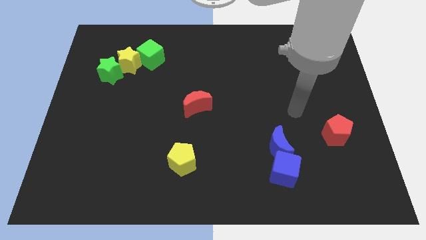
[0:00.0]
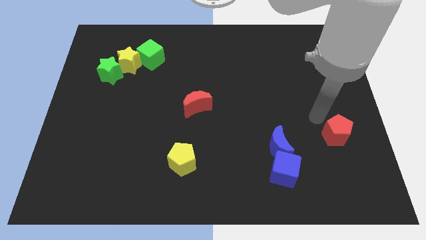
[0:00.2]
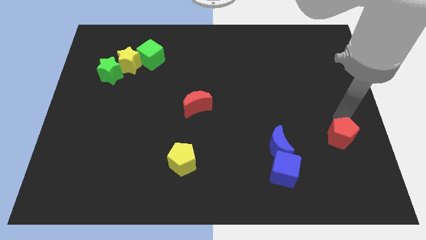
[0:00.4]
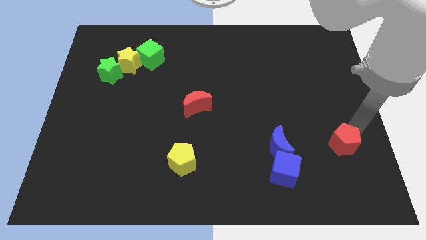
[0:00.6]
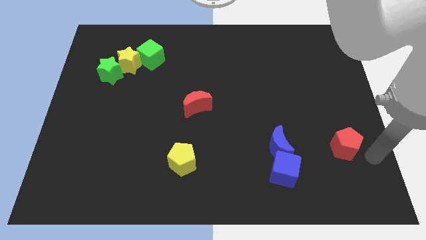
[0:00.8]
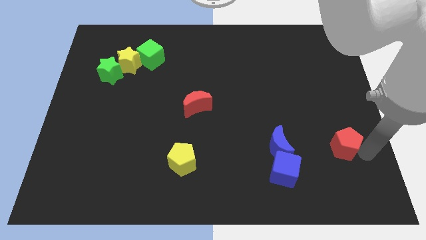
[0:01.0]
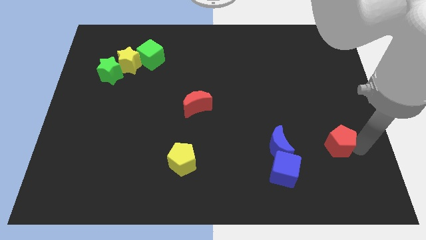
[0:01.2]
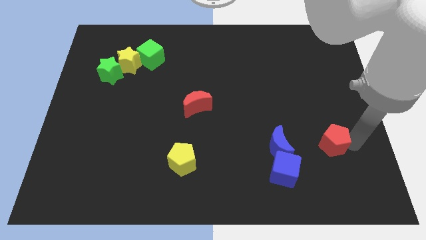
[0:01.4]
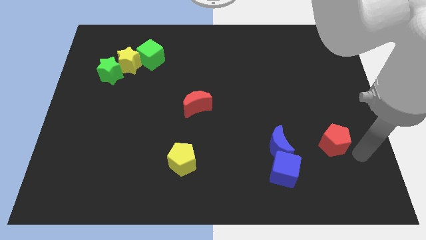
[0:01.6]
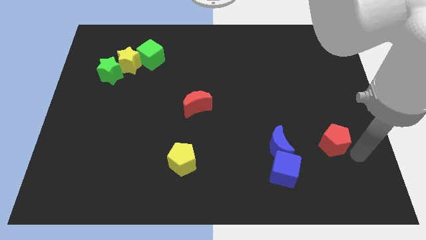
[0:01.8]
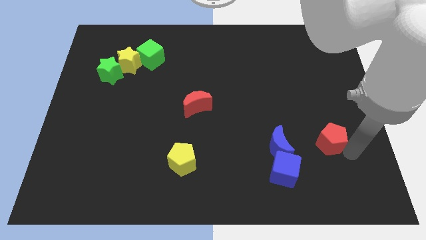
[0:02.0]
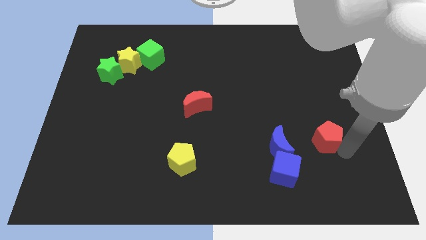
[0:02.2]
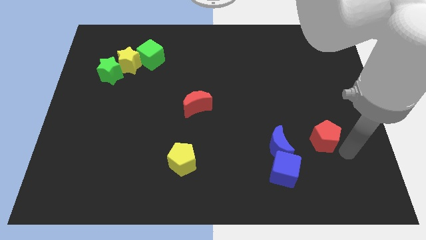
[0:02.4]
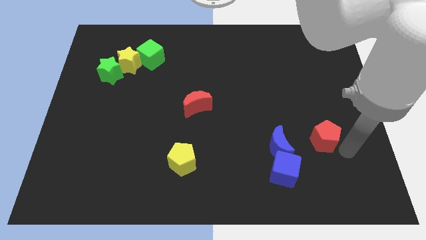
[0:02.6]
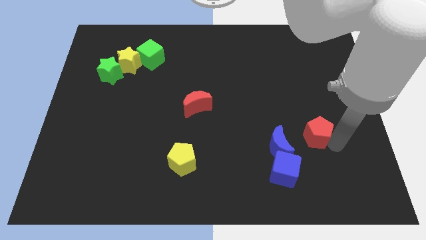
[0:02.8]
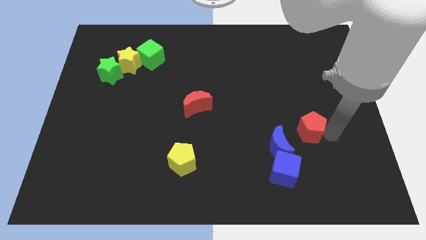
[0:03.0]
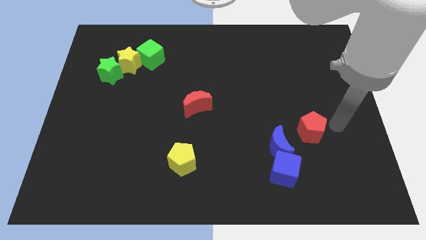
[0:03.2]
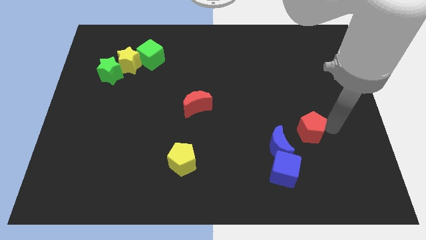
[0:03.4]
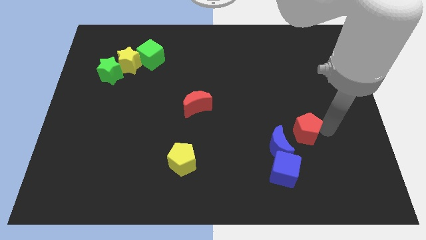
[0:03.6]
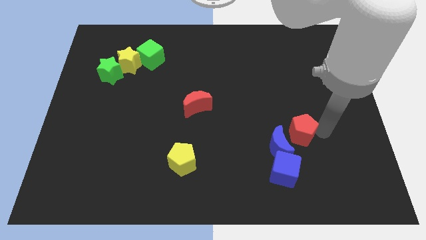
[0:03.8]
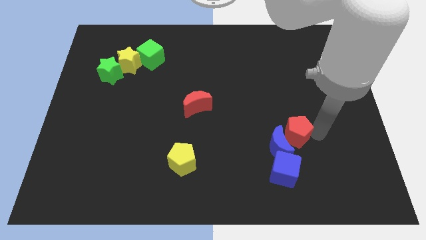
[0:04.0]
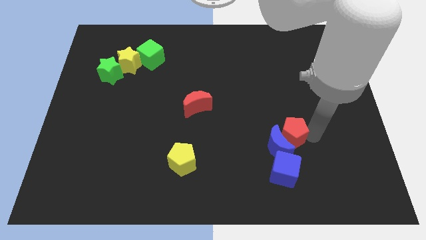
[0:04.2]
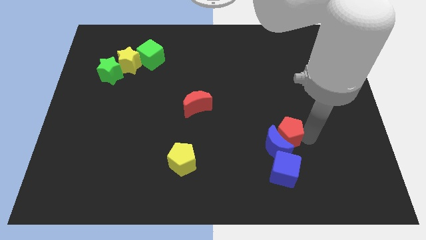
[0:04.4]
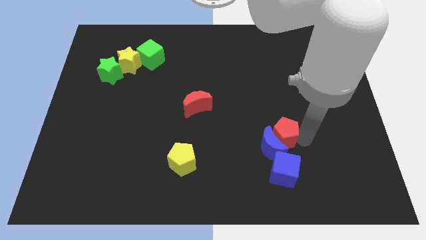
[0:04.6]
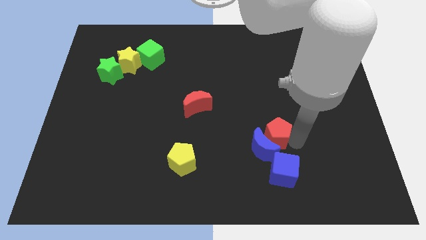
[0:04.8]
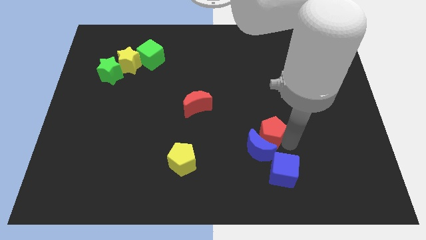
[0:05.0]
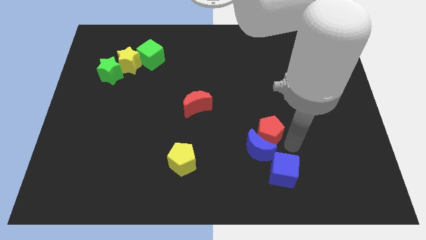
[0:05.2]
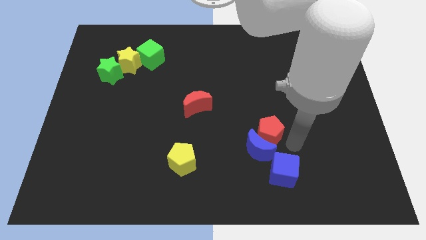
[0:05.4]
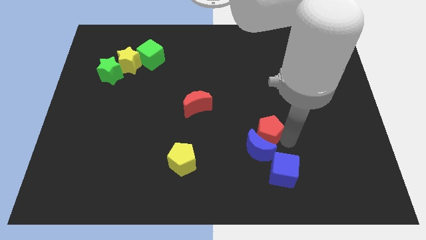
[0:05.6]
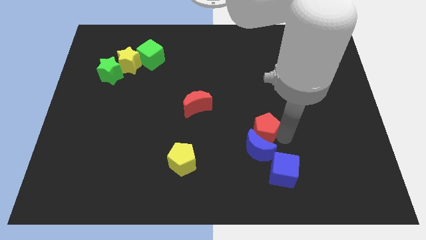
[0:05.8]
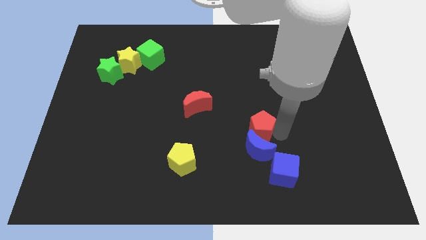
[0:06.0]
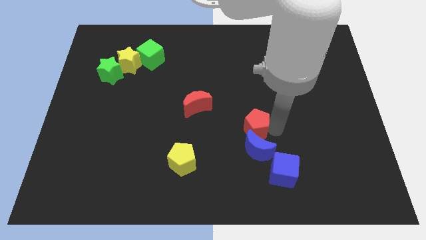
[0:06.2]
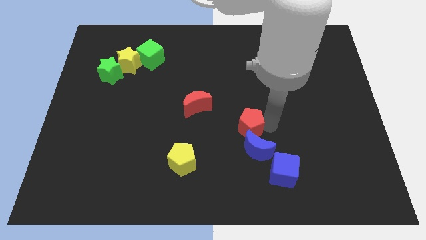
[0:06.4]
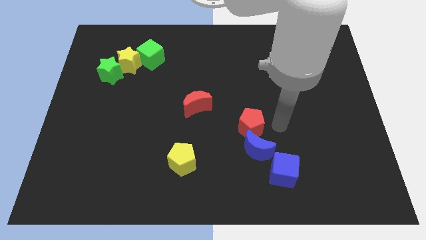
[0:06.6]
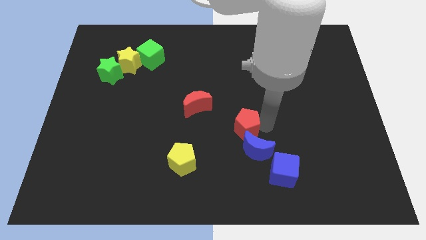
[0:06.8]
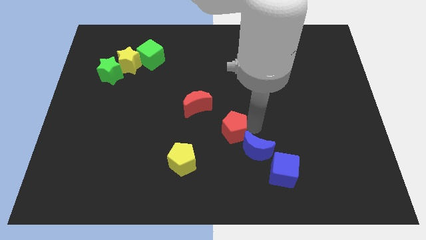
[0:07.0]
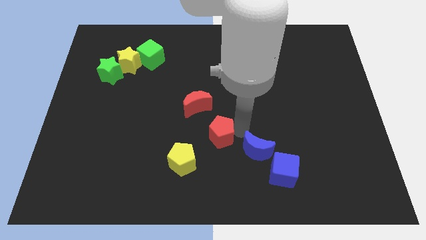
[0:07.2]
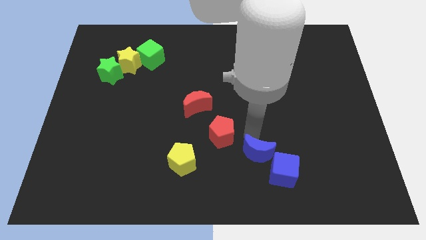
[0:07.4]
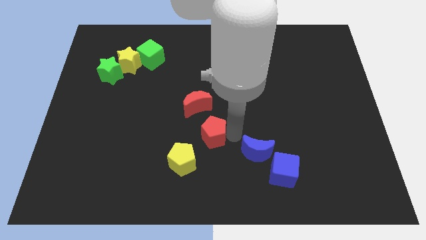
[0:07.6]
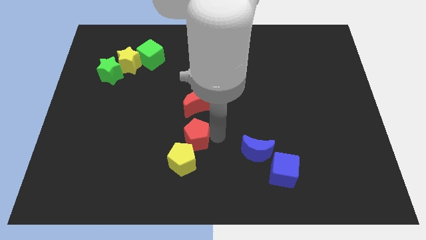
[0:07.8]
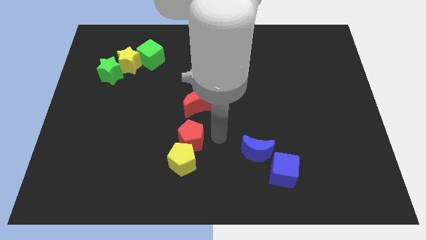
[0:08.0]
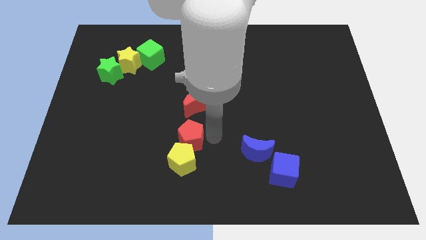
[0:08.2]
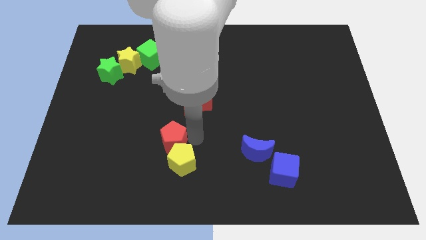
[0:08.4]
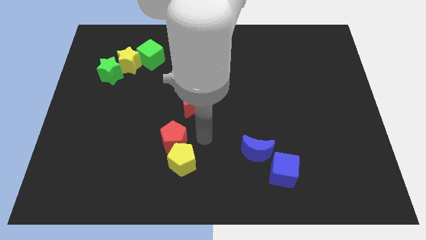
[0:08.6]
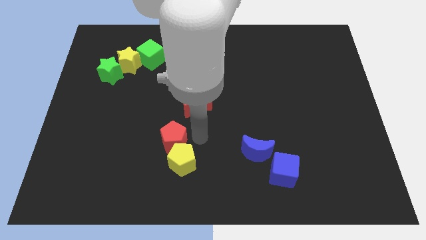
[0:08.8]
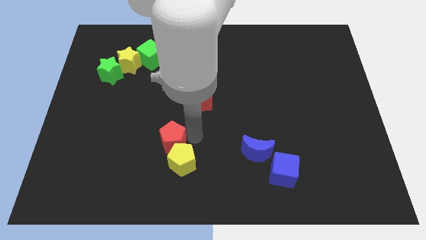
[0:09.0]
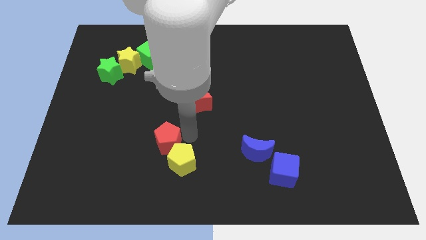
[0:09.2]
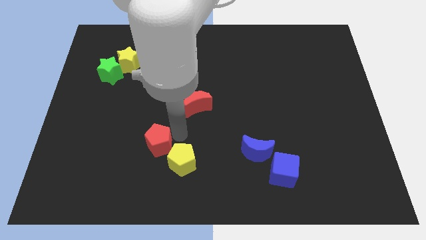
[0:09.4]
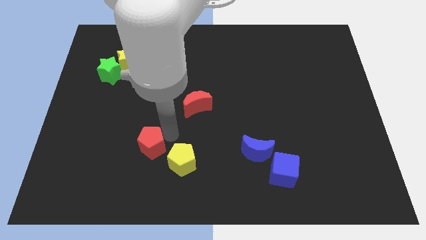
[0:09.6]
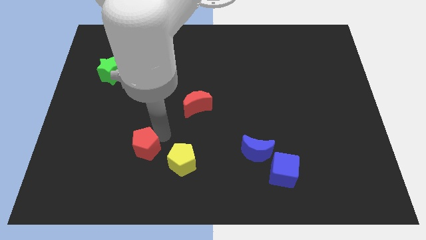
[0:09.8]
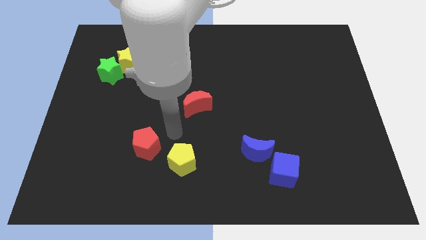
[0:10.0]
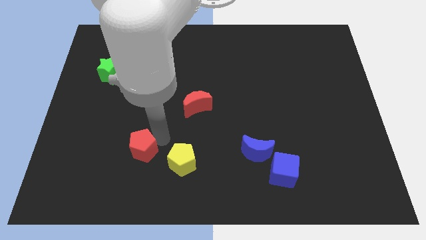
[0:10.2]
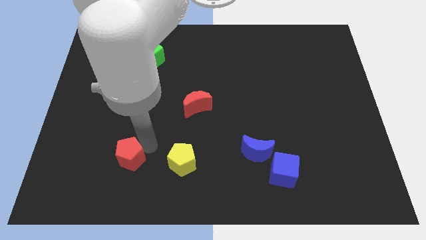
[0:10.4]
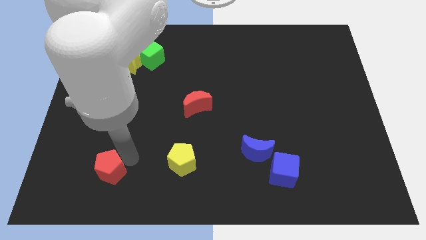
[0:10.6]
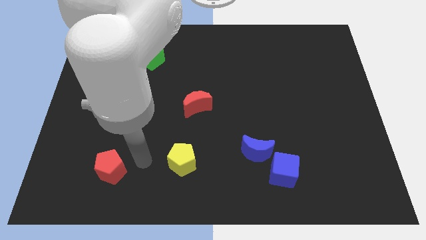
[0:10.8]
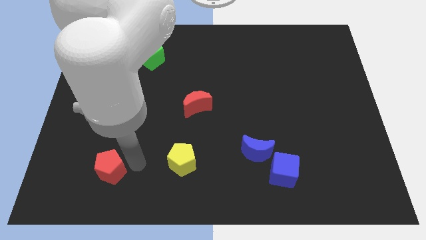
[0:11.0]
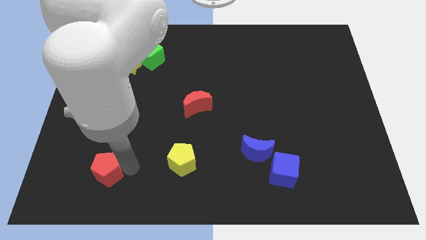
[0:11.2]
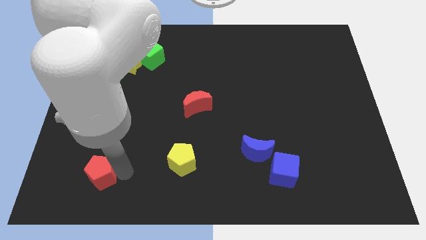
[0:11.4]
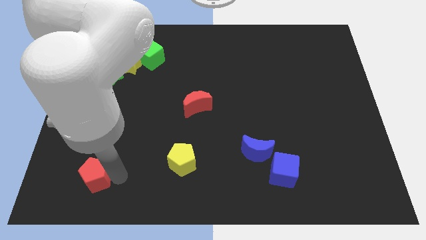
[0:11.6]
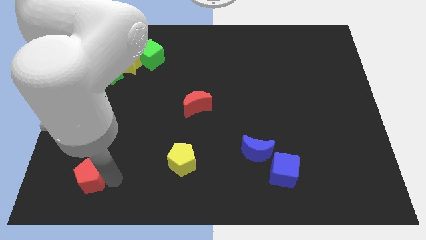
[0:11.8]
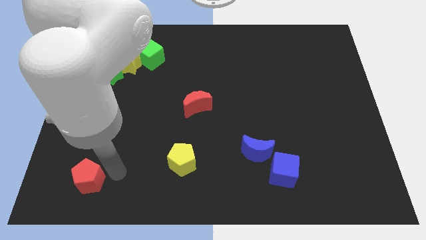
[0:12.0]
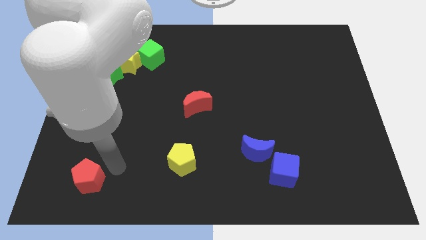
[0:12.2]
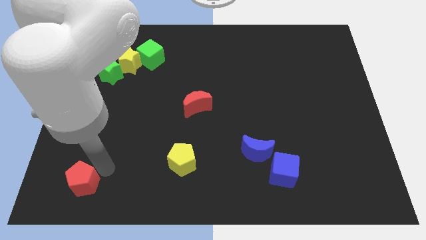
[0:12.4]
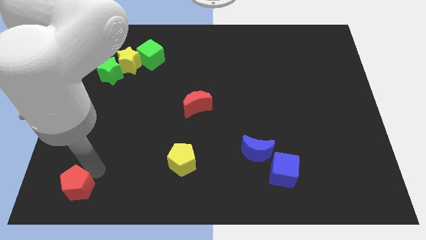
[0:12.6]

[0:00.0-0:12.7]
slide the red pentagon to the bottom left of the board

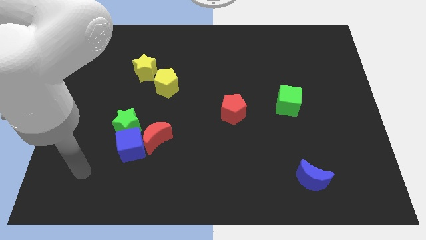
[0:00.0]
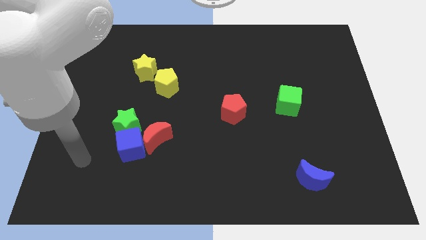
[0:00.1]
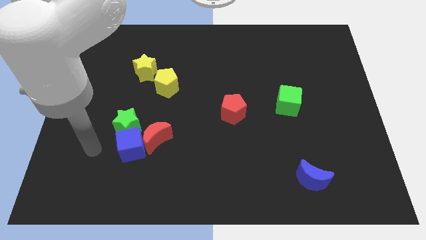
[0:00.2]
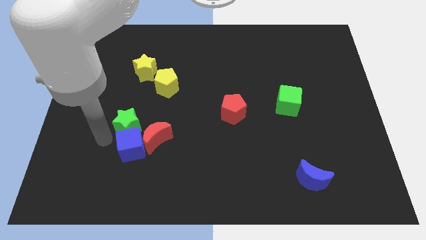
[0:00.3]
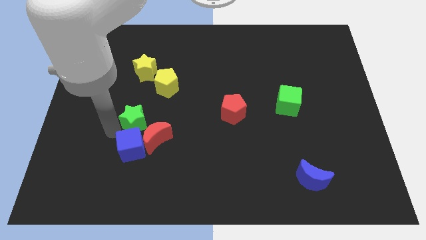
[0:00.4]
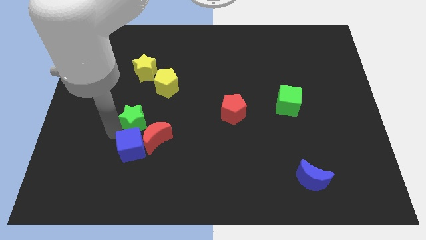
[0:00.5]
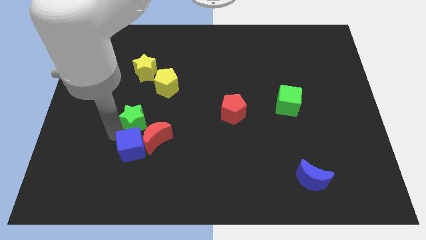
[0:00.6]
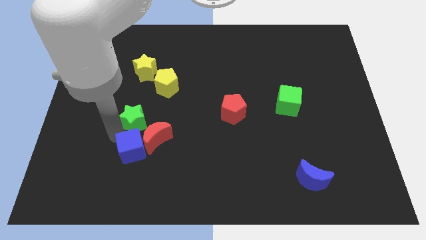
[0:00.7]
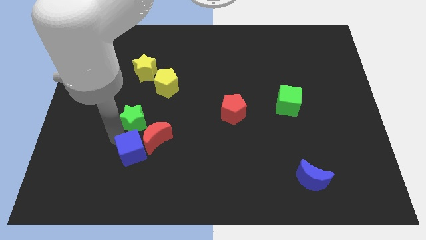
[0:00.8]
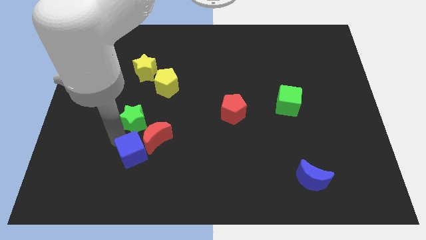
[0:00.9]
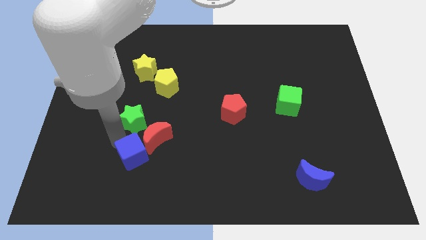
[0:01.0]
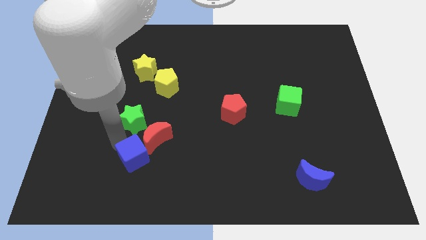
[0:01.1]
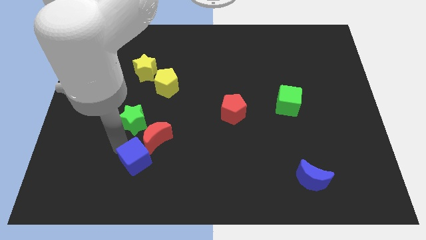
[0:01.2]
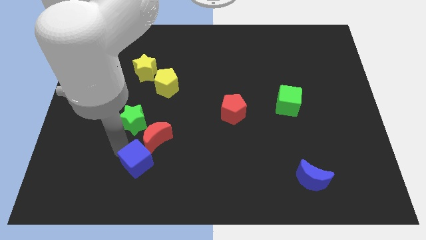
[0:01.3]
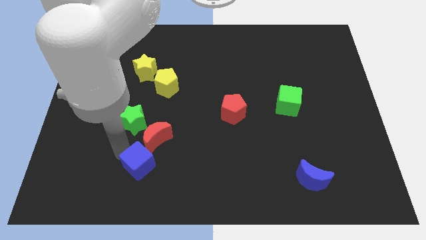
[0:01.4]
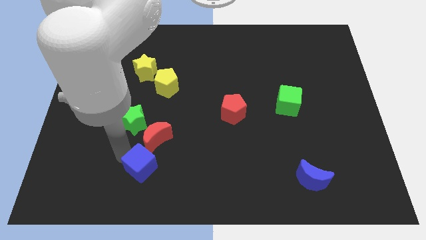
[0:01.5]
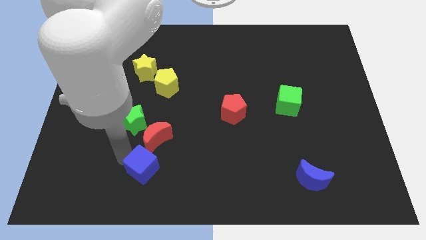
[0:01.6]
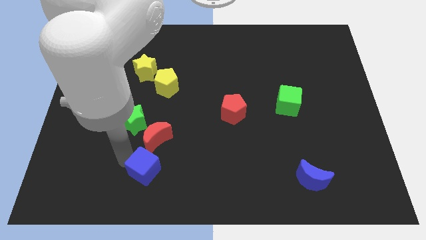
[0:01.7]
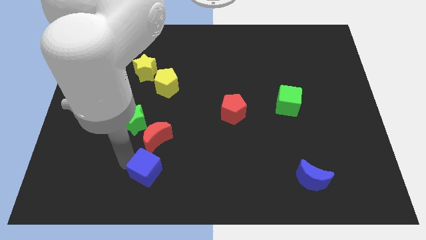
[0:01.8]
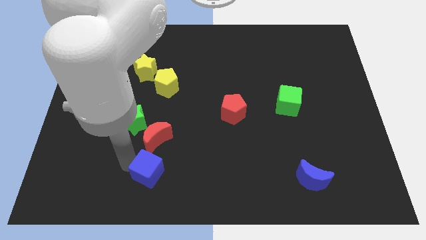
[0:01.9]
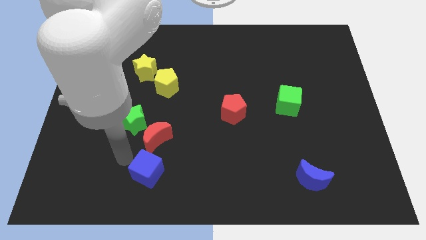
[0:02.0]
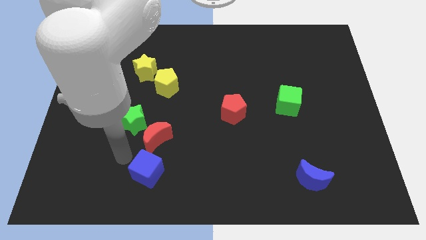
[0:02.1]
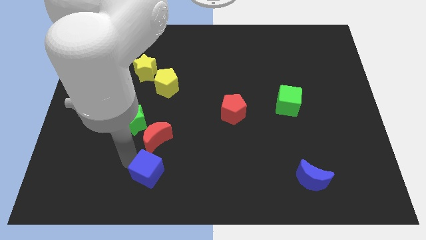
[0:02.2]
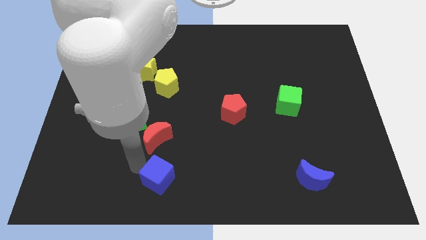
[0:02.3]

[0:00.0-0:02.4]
slide the blue cube to the bottom side
